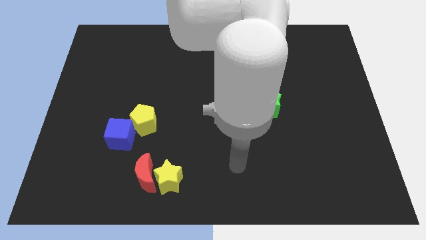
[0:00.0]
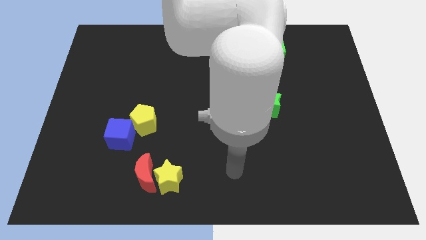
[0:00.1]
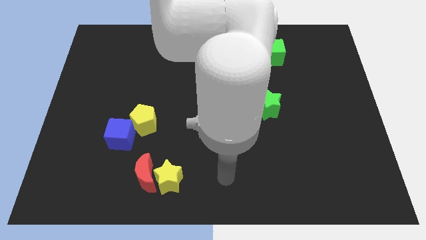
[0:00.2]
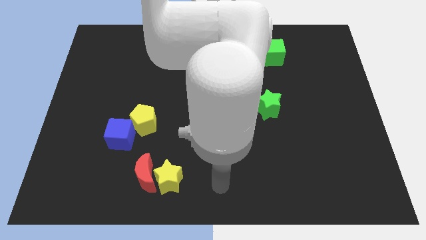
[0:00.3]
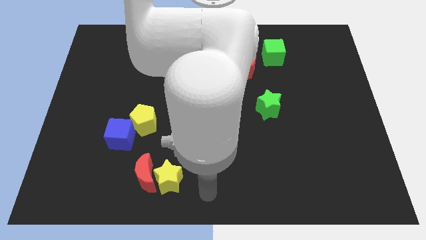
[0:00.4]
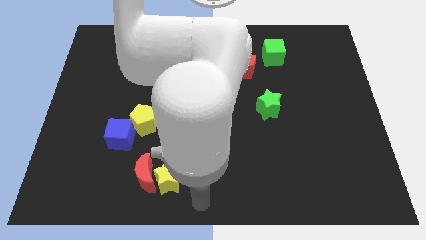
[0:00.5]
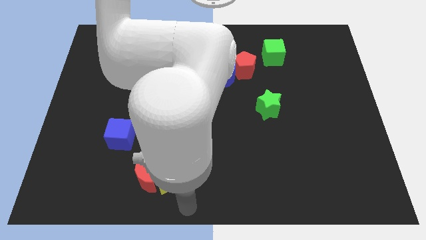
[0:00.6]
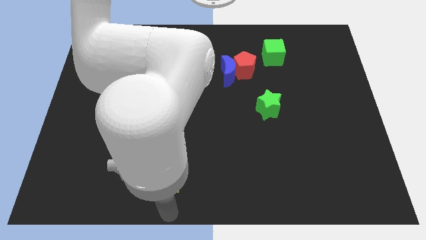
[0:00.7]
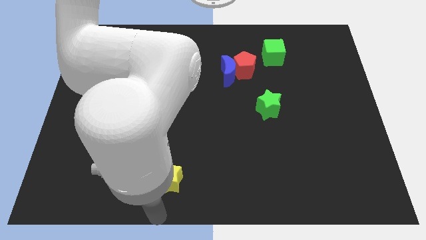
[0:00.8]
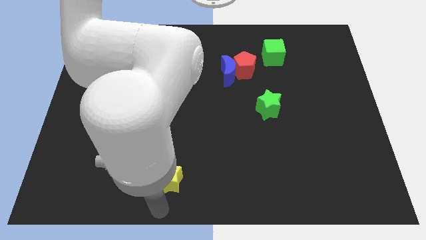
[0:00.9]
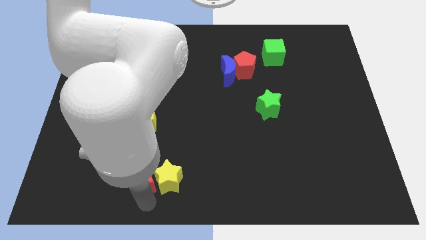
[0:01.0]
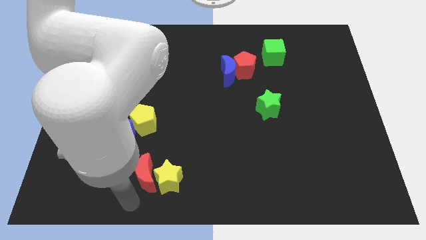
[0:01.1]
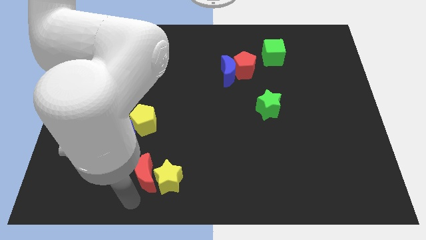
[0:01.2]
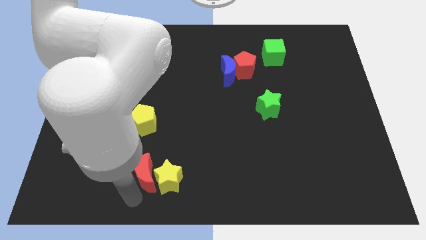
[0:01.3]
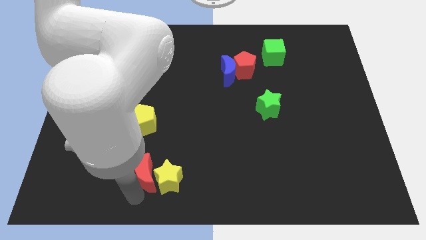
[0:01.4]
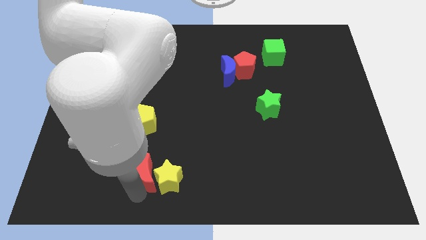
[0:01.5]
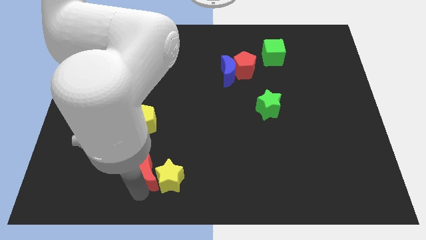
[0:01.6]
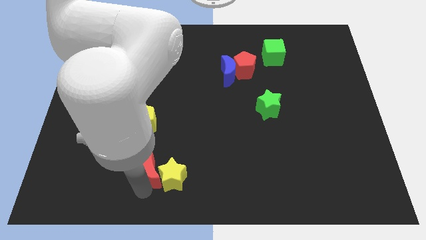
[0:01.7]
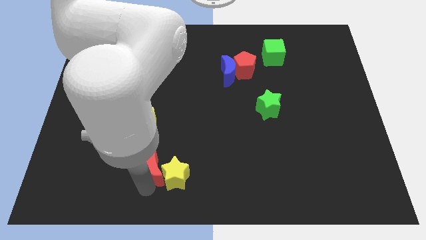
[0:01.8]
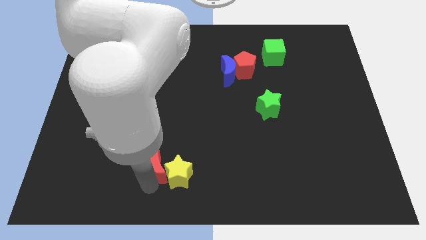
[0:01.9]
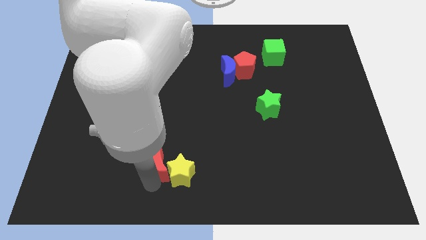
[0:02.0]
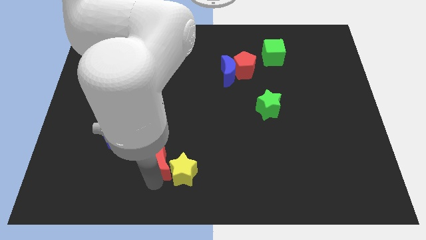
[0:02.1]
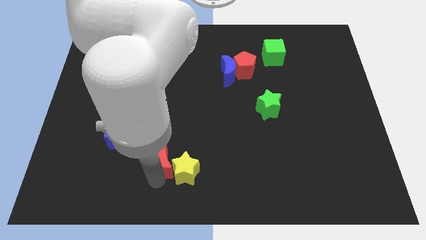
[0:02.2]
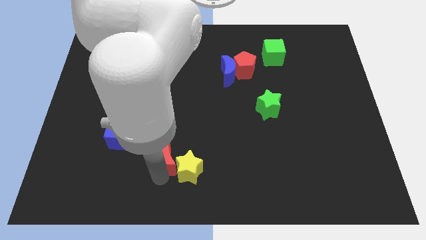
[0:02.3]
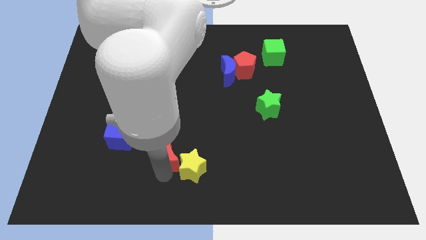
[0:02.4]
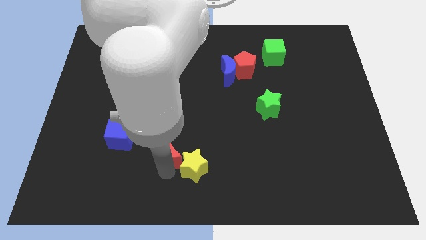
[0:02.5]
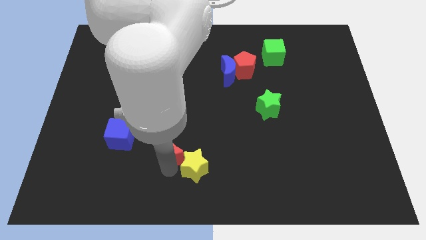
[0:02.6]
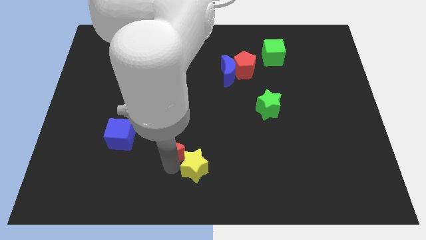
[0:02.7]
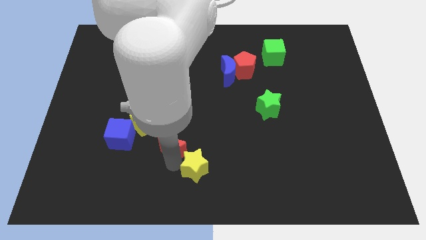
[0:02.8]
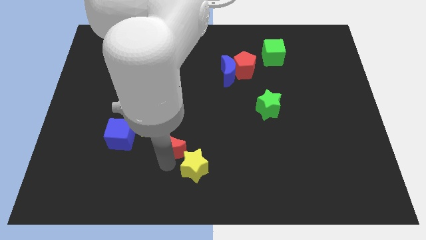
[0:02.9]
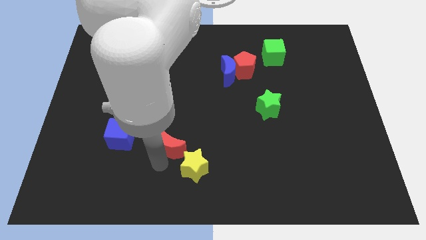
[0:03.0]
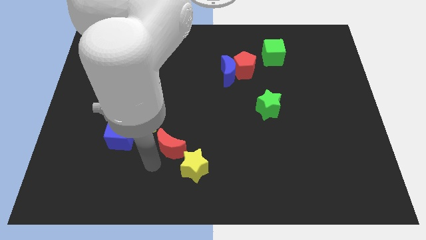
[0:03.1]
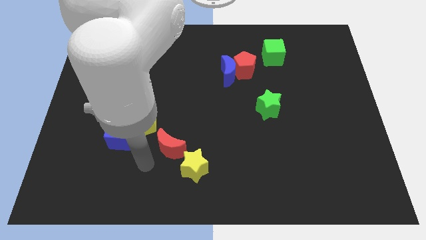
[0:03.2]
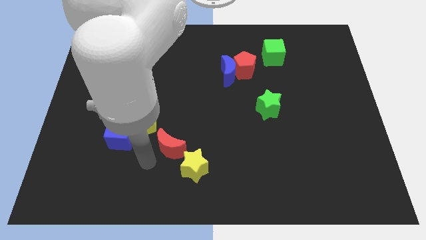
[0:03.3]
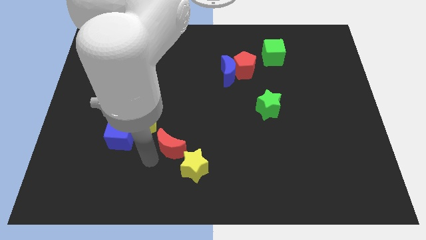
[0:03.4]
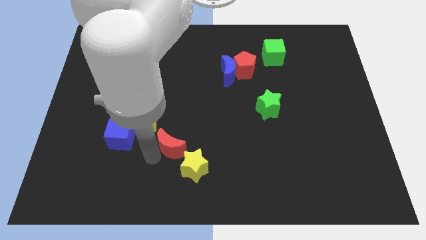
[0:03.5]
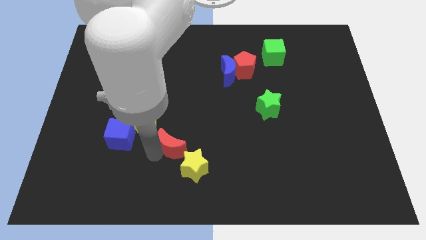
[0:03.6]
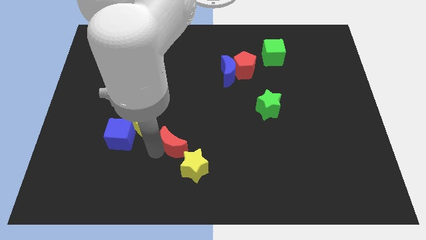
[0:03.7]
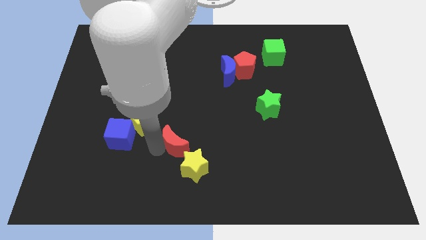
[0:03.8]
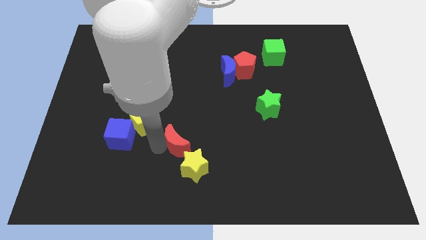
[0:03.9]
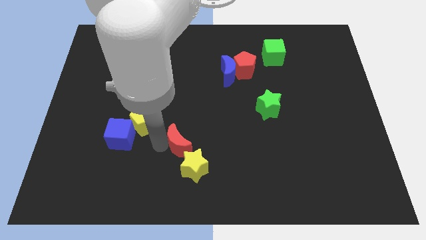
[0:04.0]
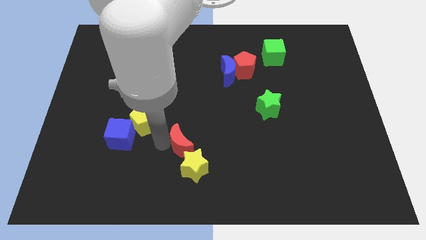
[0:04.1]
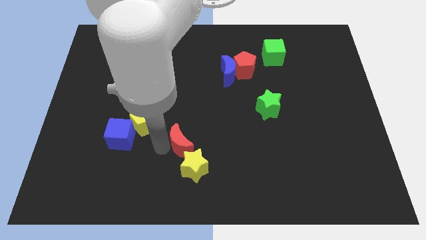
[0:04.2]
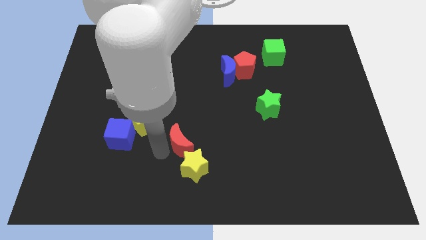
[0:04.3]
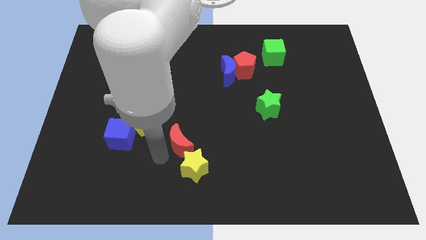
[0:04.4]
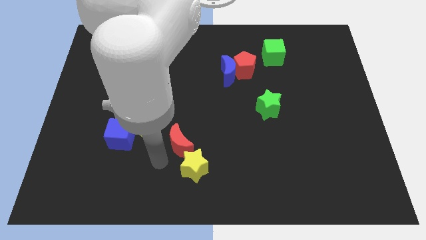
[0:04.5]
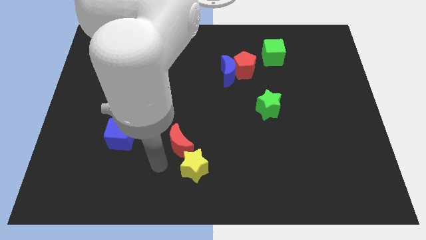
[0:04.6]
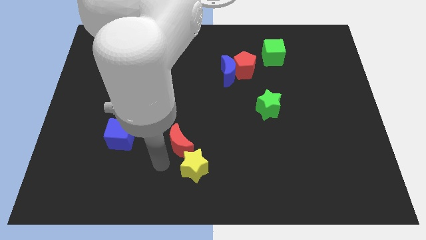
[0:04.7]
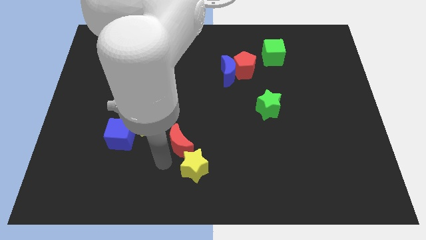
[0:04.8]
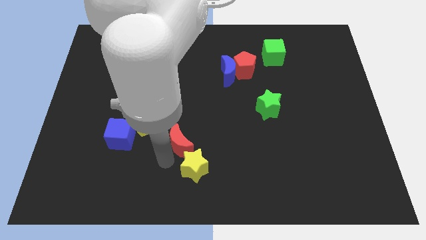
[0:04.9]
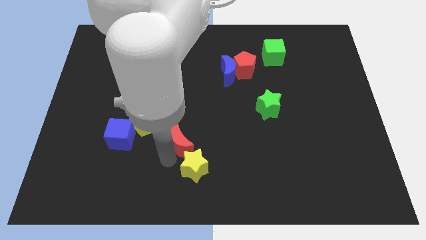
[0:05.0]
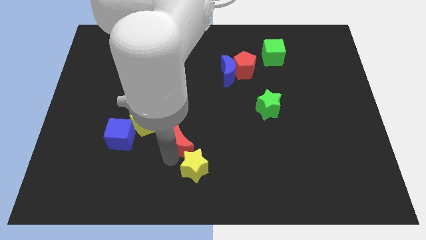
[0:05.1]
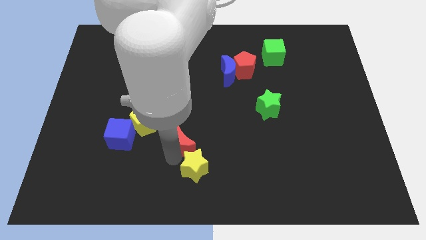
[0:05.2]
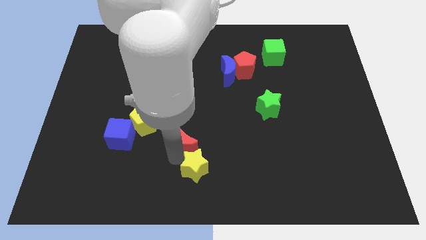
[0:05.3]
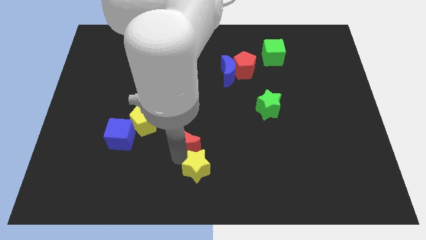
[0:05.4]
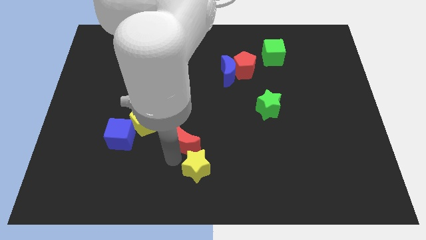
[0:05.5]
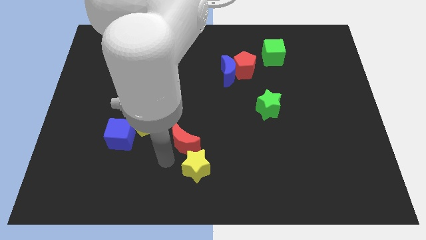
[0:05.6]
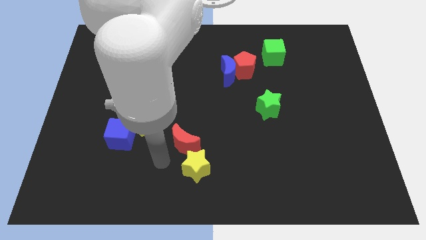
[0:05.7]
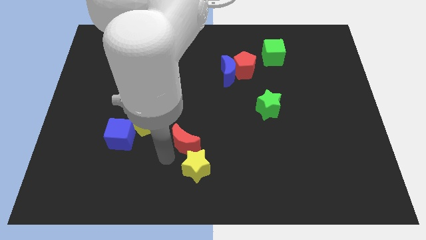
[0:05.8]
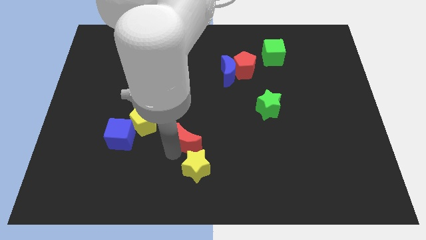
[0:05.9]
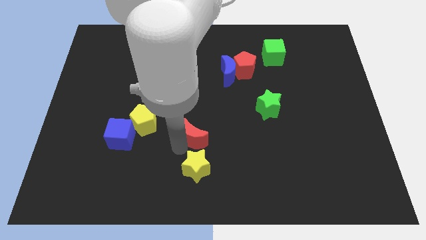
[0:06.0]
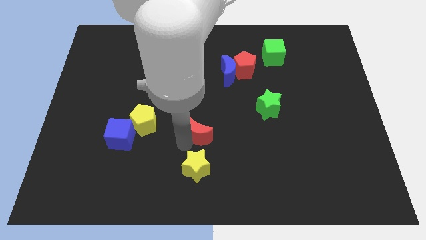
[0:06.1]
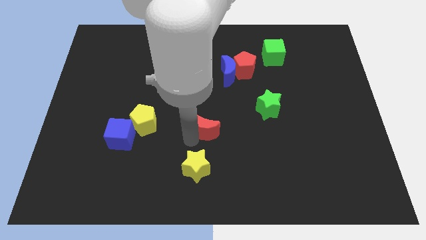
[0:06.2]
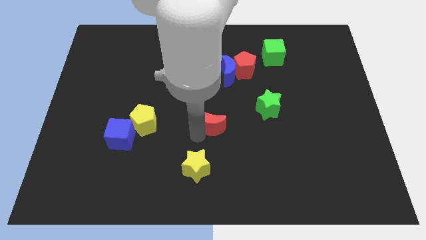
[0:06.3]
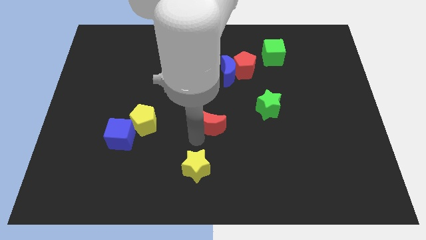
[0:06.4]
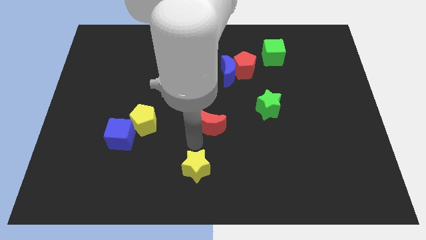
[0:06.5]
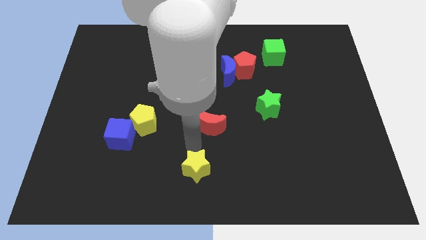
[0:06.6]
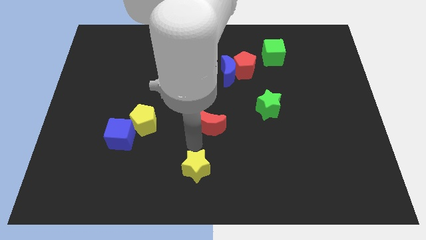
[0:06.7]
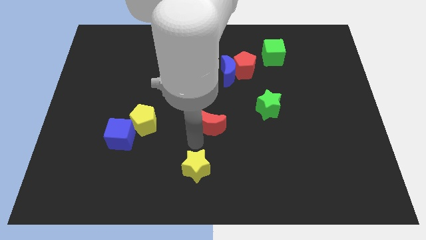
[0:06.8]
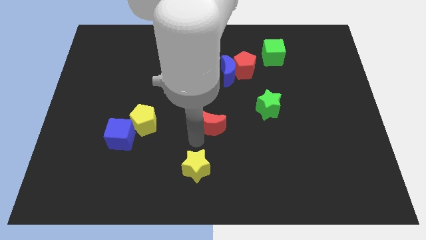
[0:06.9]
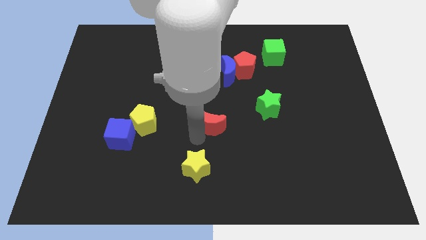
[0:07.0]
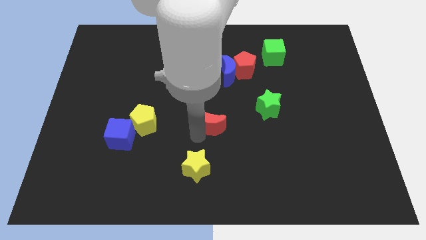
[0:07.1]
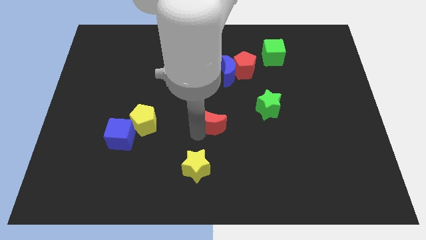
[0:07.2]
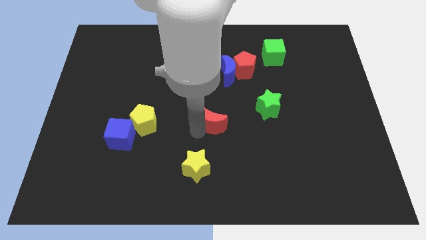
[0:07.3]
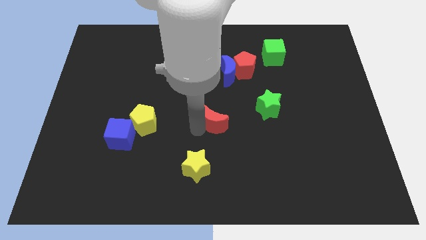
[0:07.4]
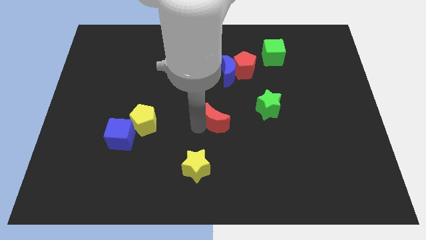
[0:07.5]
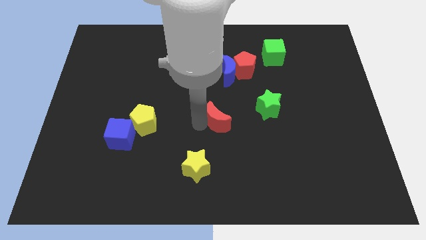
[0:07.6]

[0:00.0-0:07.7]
slide the red moon to the bottom of the blue moon
